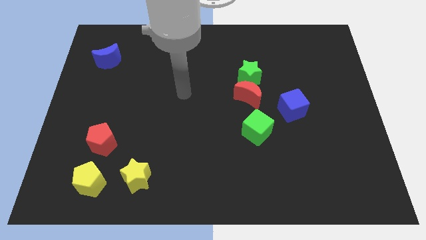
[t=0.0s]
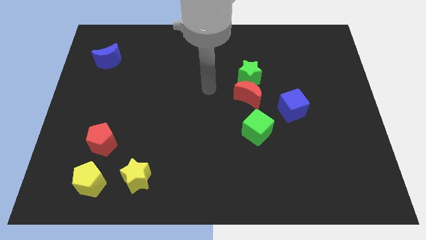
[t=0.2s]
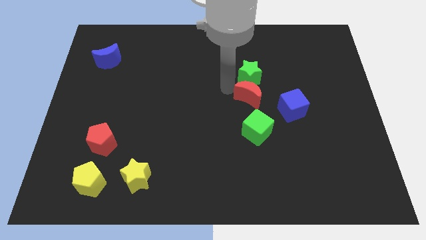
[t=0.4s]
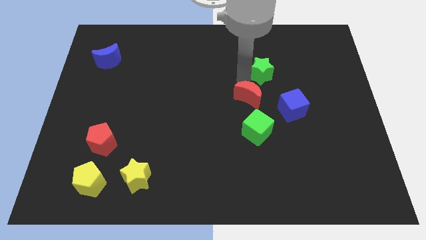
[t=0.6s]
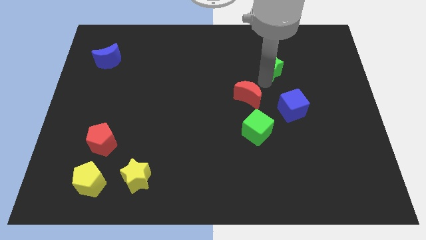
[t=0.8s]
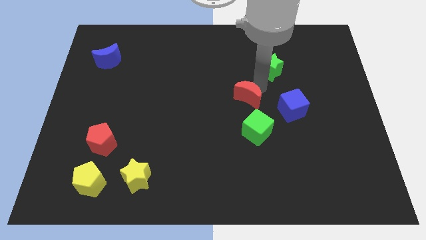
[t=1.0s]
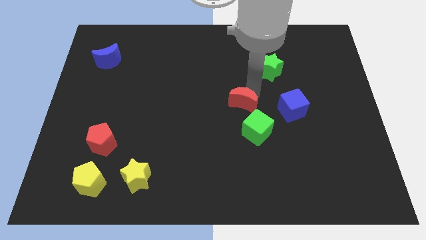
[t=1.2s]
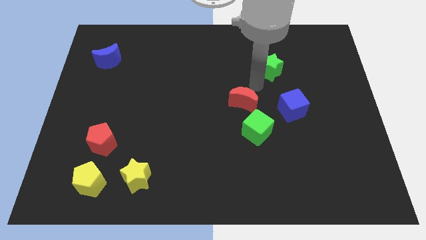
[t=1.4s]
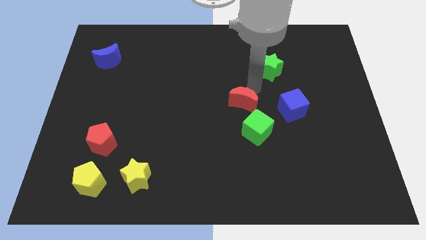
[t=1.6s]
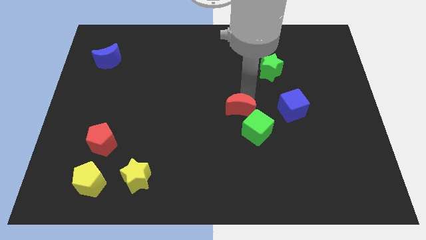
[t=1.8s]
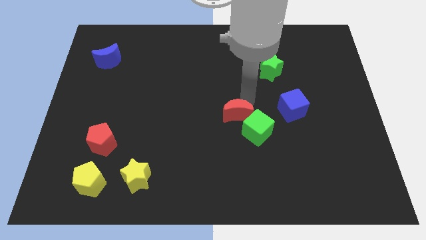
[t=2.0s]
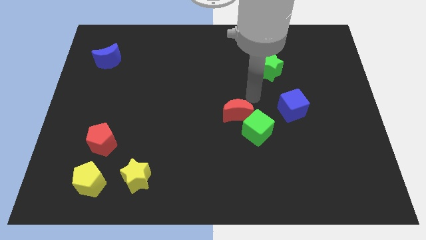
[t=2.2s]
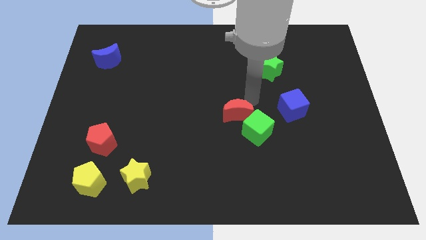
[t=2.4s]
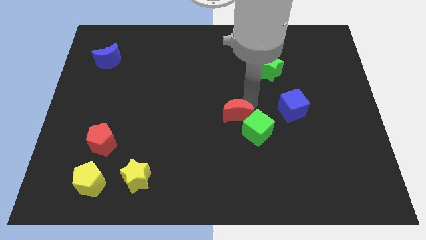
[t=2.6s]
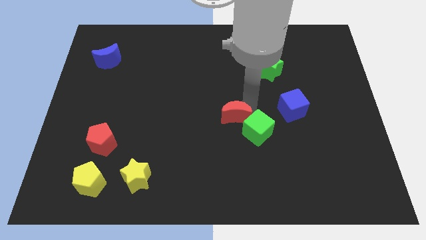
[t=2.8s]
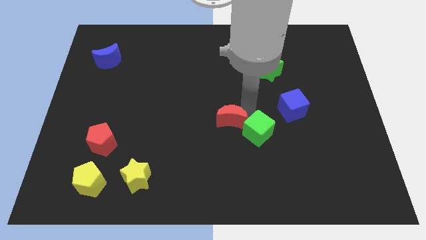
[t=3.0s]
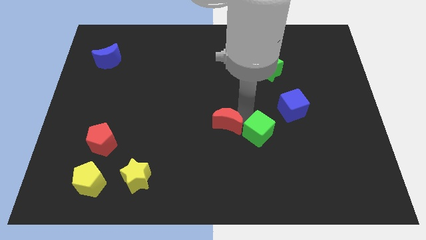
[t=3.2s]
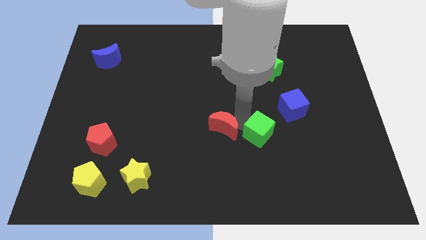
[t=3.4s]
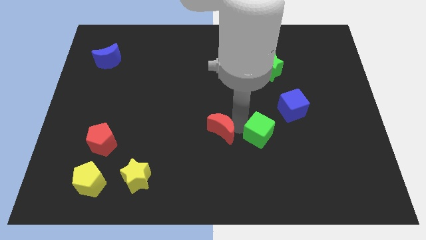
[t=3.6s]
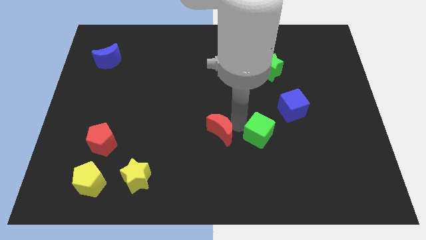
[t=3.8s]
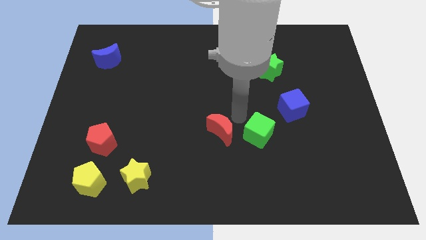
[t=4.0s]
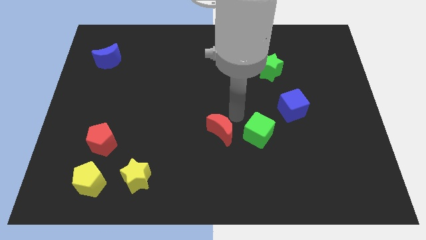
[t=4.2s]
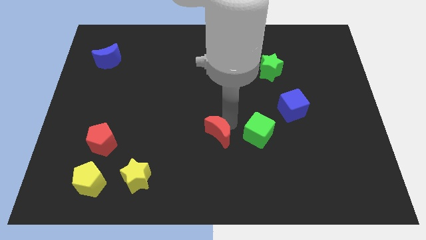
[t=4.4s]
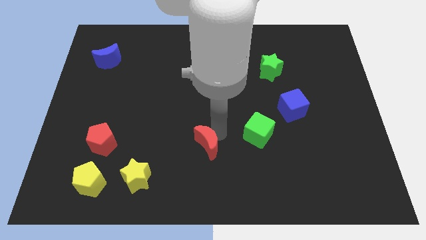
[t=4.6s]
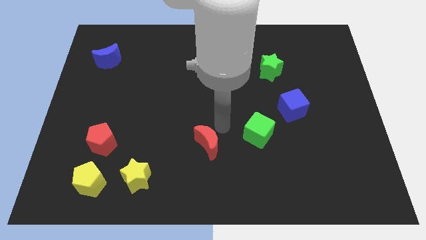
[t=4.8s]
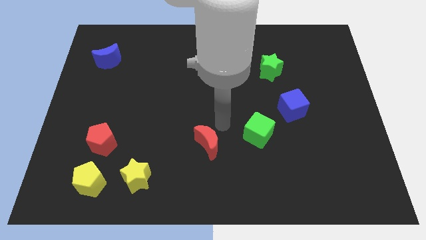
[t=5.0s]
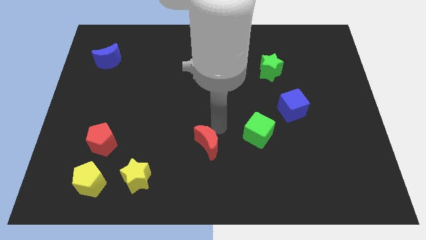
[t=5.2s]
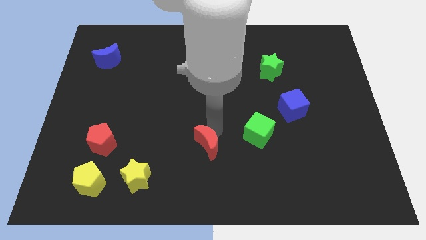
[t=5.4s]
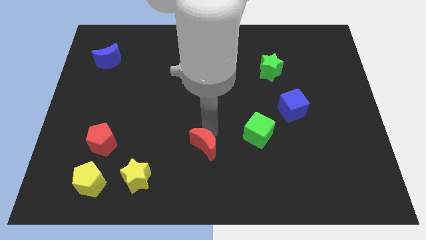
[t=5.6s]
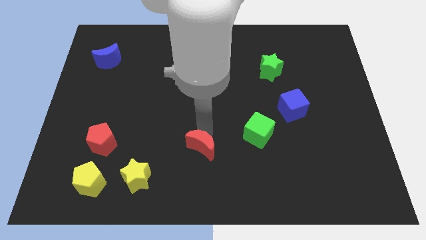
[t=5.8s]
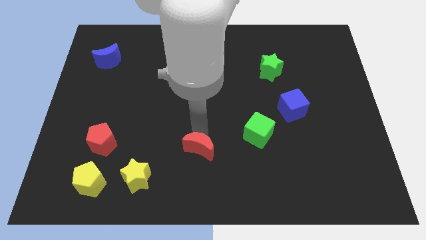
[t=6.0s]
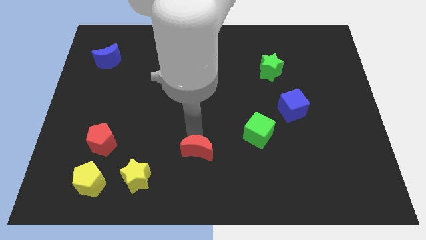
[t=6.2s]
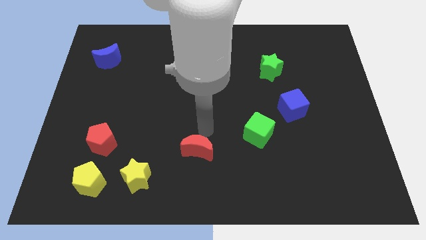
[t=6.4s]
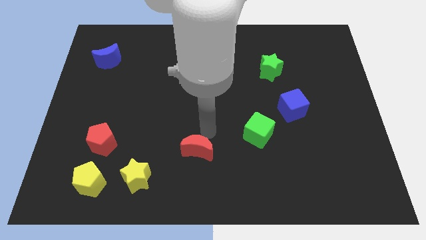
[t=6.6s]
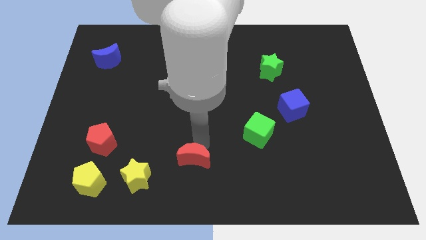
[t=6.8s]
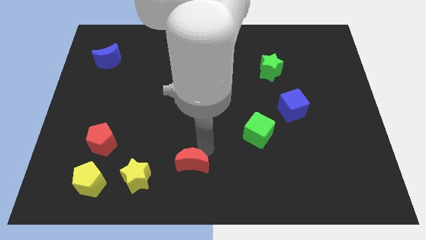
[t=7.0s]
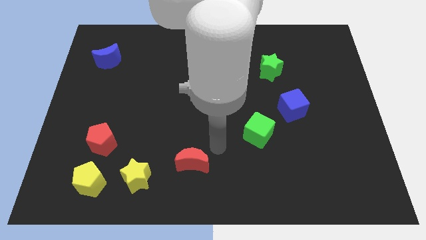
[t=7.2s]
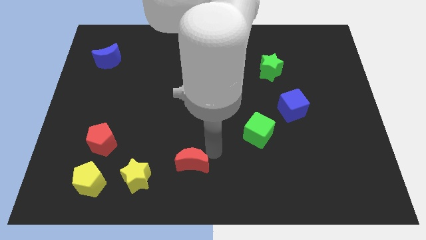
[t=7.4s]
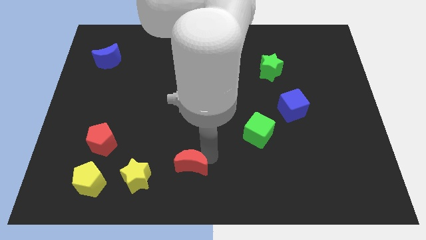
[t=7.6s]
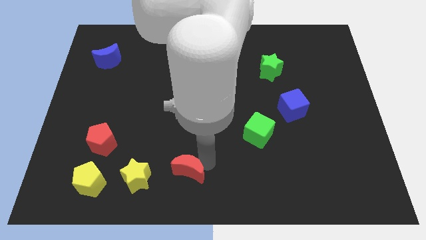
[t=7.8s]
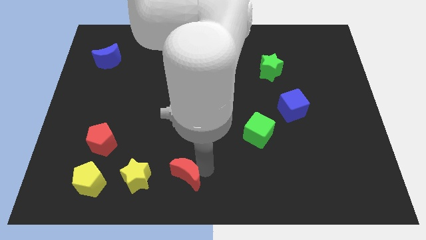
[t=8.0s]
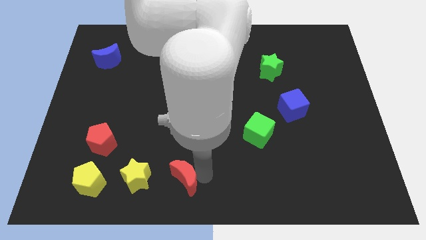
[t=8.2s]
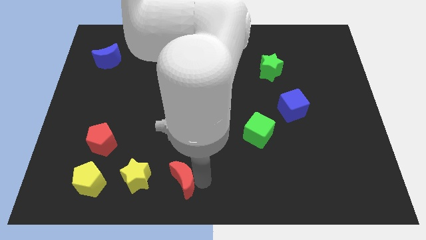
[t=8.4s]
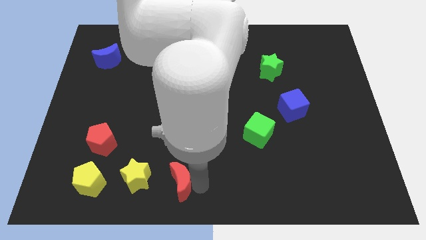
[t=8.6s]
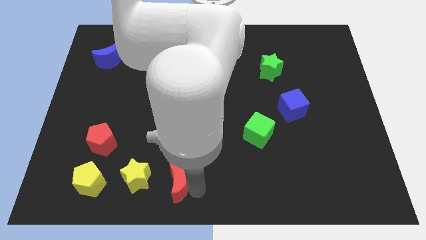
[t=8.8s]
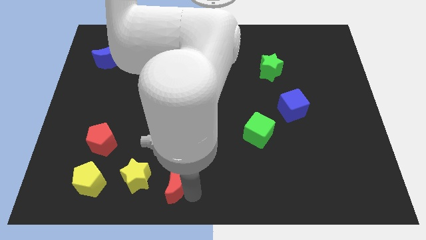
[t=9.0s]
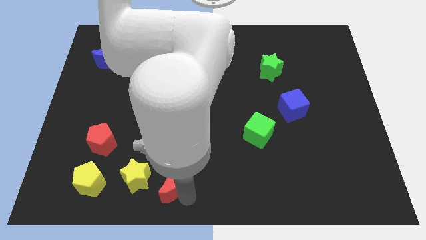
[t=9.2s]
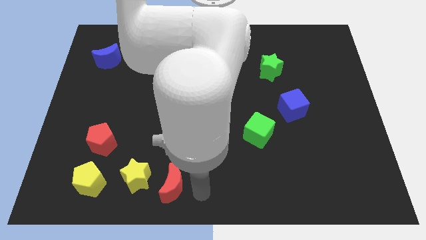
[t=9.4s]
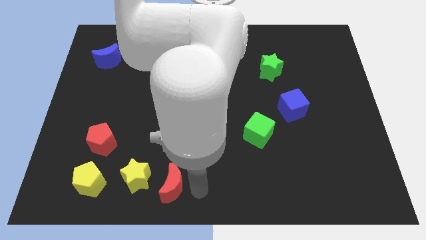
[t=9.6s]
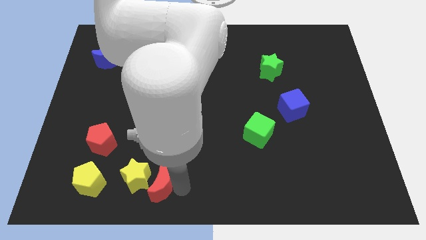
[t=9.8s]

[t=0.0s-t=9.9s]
put the red moon just right of the yellow pentagon

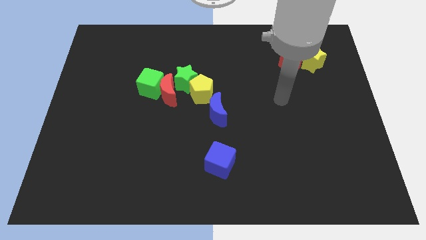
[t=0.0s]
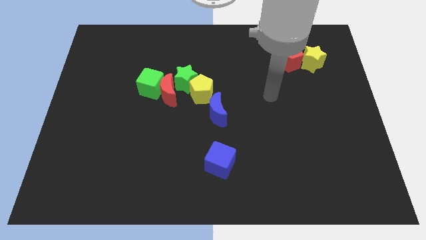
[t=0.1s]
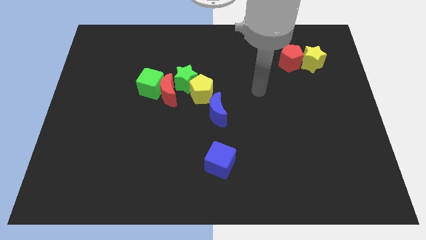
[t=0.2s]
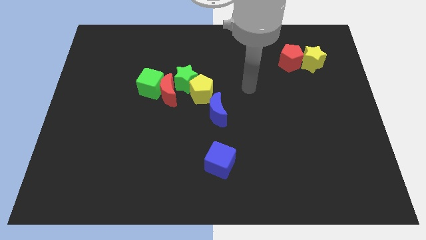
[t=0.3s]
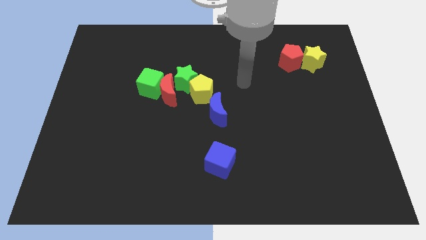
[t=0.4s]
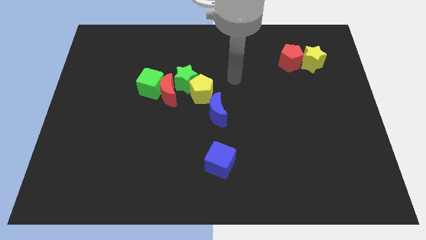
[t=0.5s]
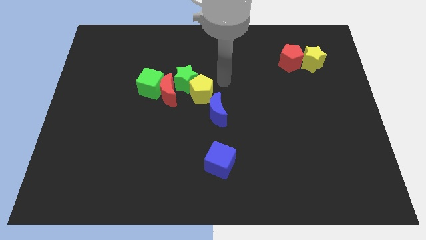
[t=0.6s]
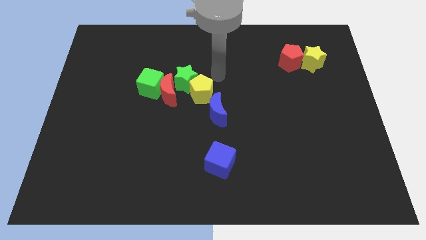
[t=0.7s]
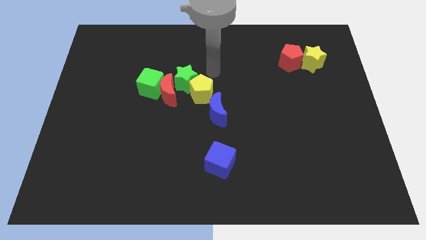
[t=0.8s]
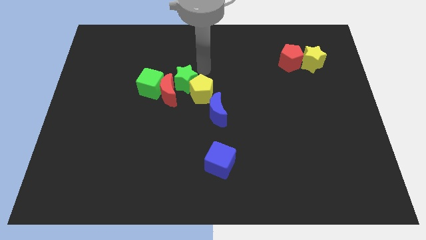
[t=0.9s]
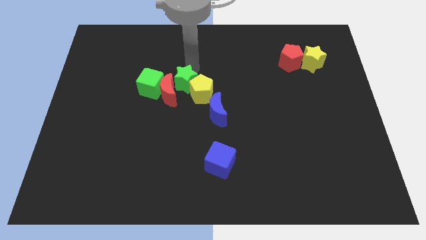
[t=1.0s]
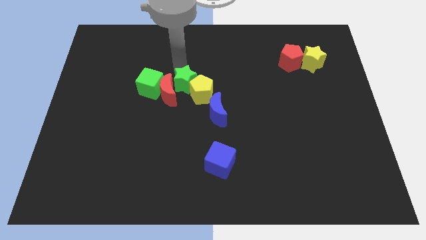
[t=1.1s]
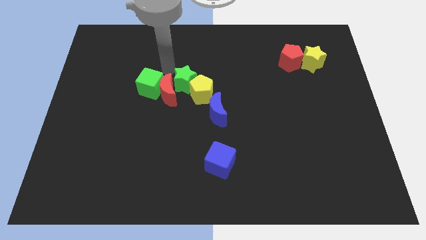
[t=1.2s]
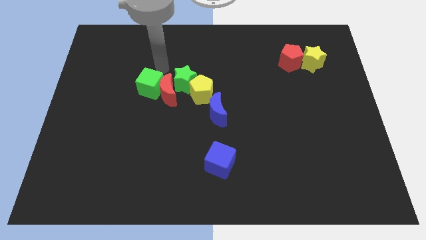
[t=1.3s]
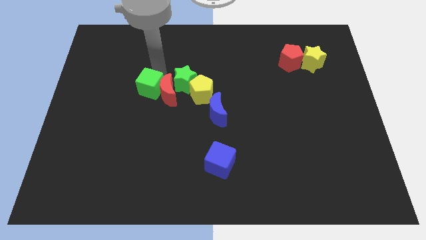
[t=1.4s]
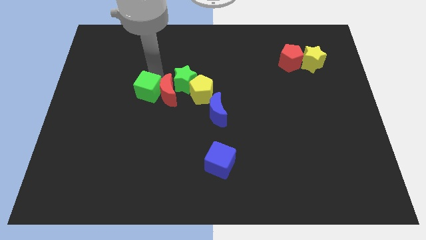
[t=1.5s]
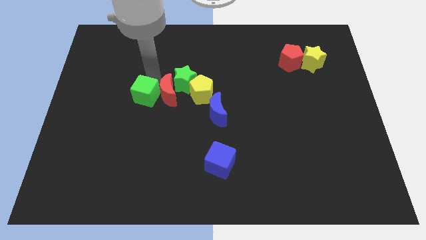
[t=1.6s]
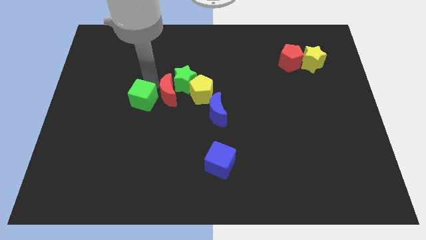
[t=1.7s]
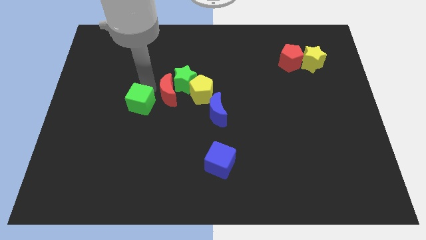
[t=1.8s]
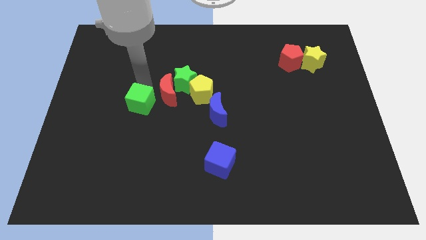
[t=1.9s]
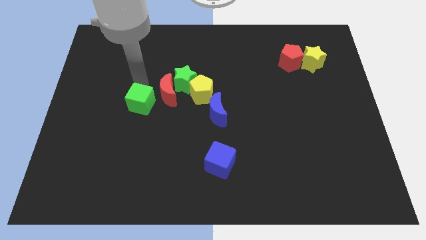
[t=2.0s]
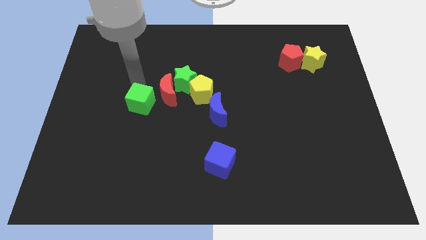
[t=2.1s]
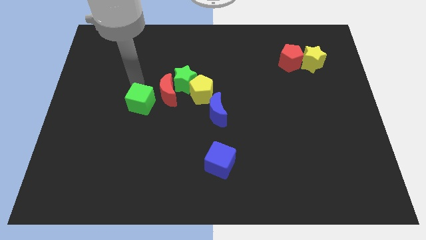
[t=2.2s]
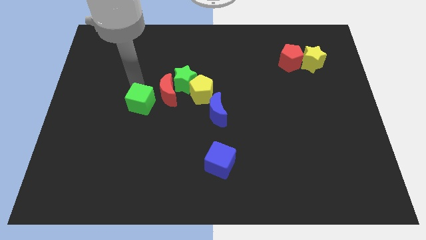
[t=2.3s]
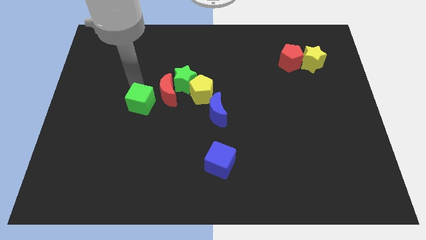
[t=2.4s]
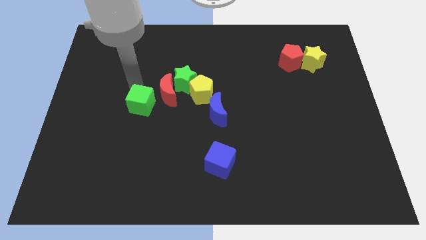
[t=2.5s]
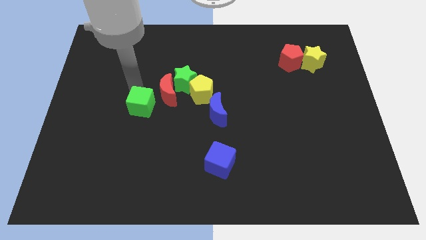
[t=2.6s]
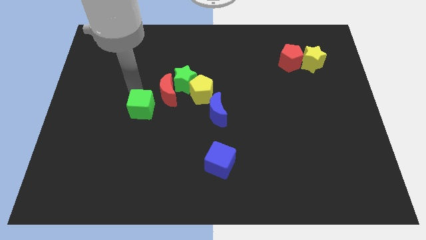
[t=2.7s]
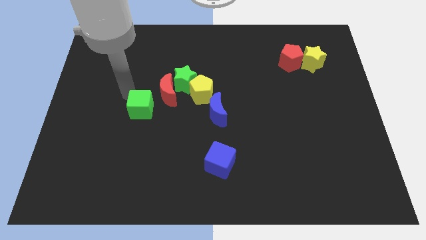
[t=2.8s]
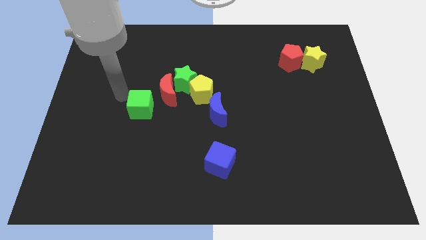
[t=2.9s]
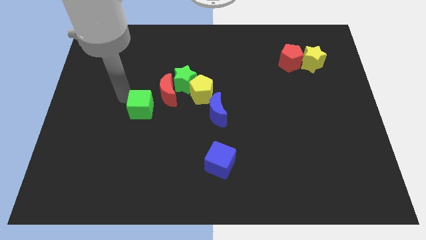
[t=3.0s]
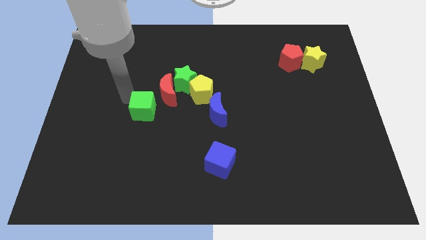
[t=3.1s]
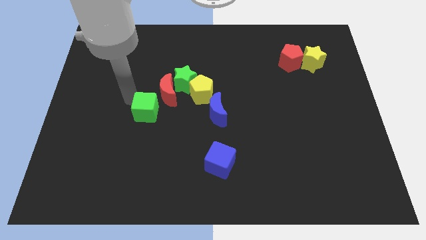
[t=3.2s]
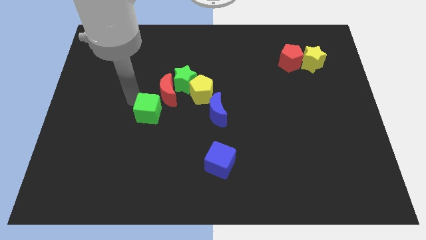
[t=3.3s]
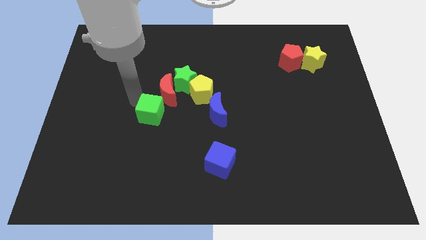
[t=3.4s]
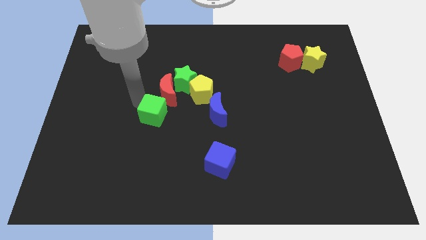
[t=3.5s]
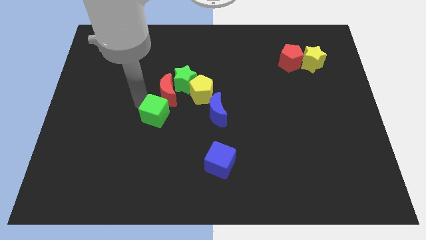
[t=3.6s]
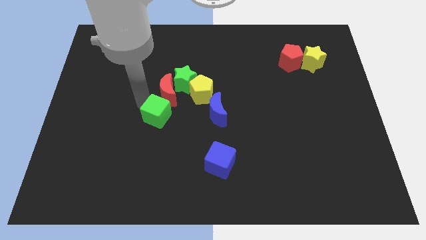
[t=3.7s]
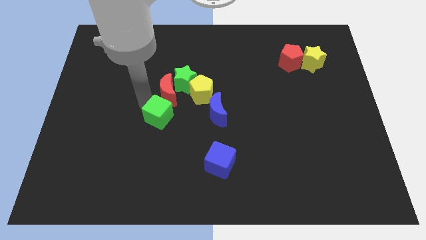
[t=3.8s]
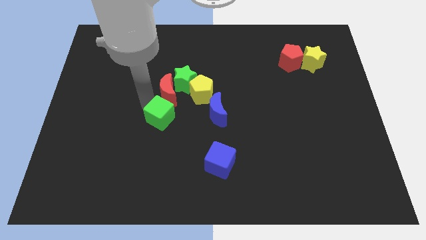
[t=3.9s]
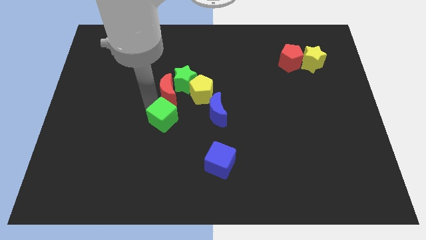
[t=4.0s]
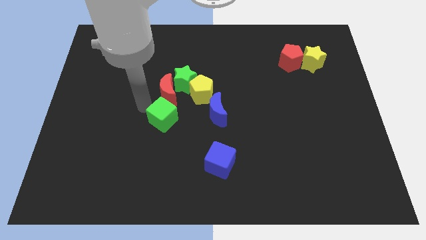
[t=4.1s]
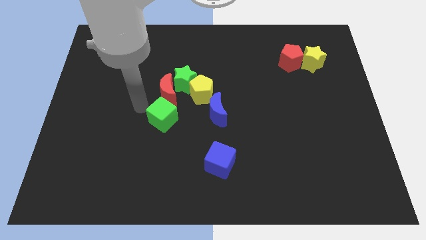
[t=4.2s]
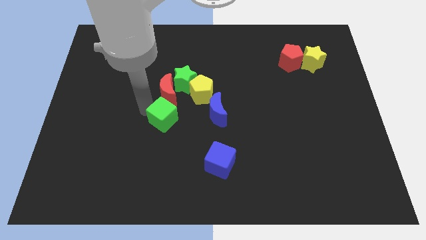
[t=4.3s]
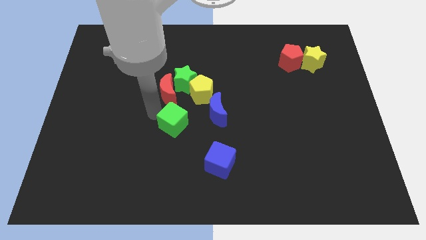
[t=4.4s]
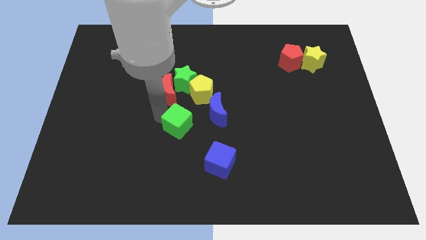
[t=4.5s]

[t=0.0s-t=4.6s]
push the green cube to the bottom left side of the blue moon
